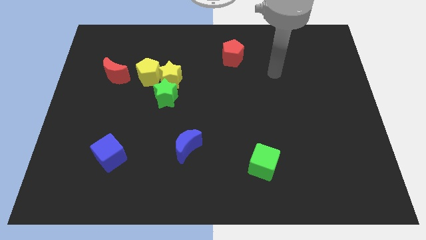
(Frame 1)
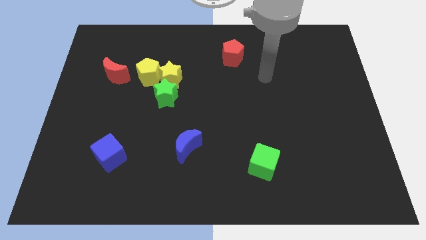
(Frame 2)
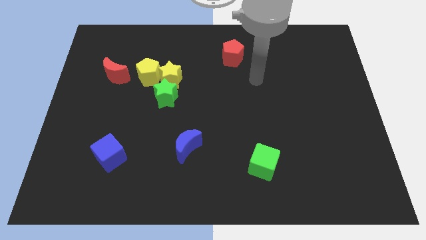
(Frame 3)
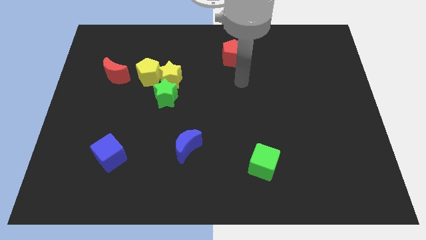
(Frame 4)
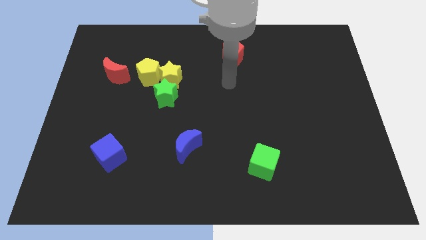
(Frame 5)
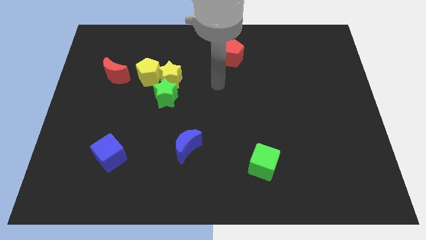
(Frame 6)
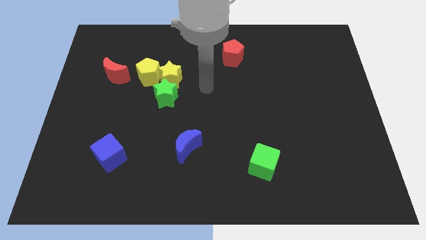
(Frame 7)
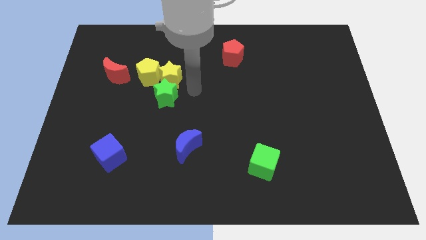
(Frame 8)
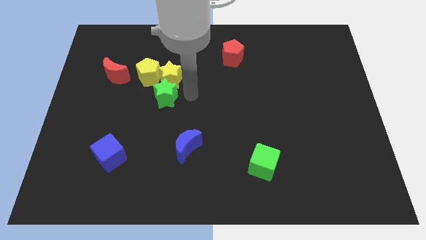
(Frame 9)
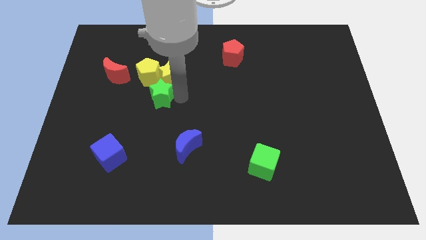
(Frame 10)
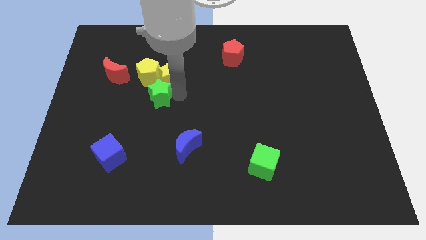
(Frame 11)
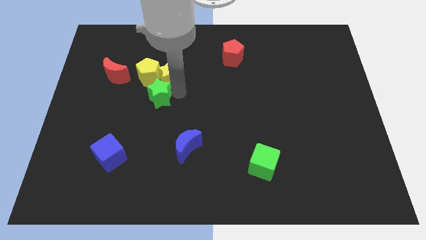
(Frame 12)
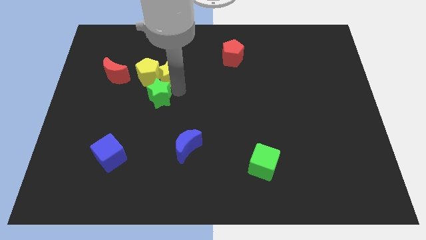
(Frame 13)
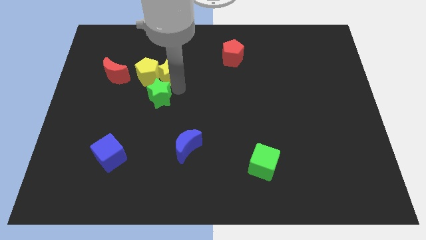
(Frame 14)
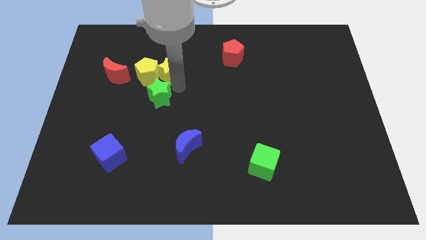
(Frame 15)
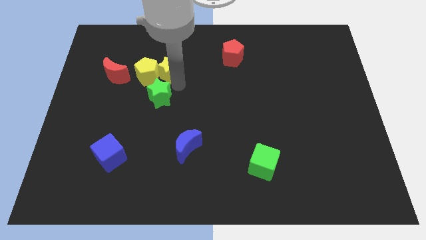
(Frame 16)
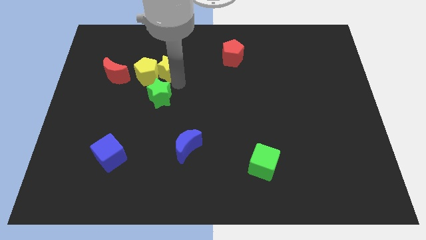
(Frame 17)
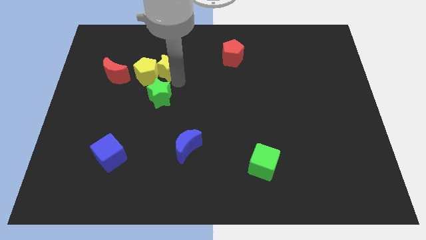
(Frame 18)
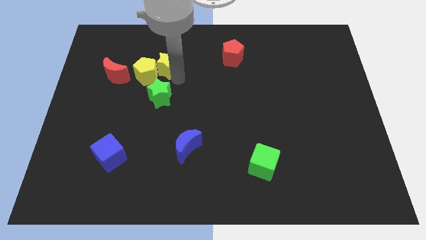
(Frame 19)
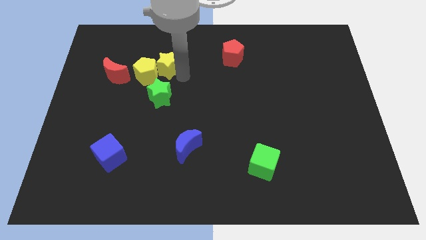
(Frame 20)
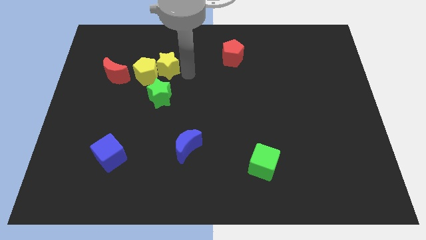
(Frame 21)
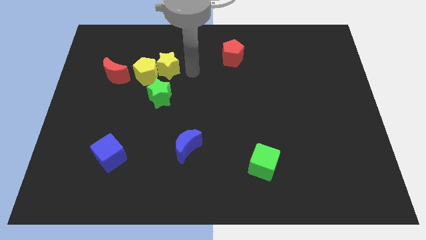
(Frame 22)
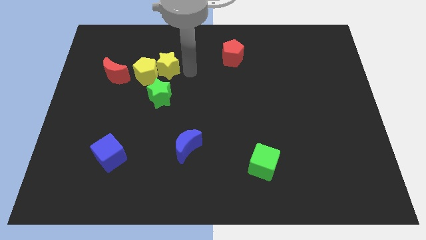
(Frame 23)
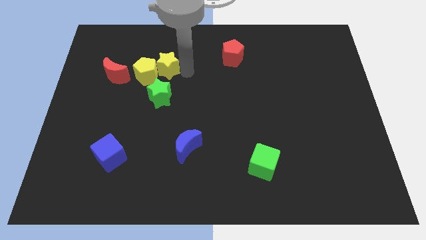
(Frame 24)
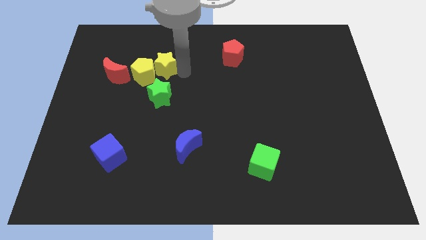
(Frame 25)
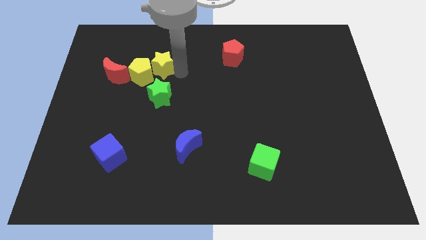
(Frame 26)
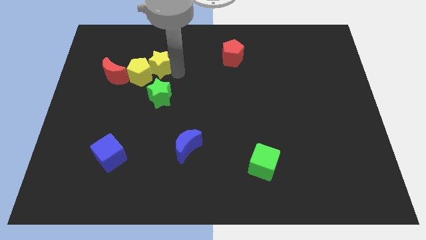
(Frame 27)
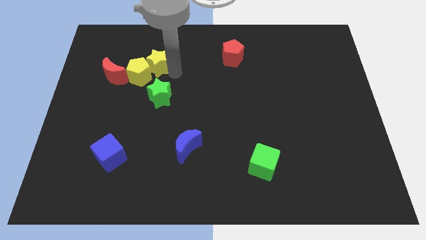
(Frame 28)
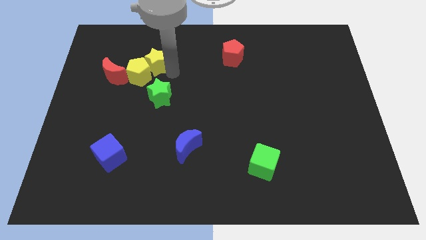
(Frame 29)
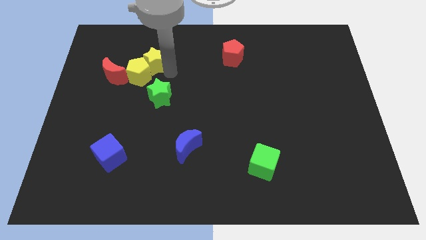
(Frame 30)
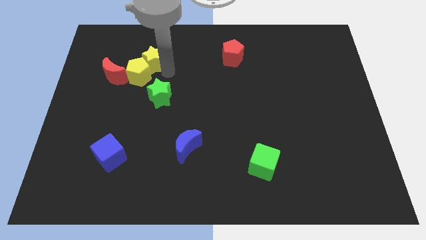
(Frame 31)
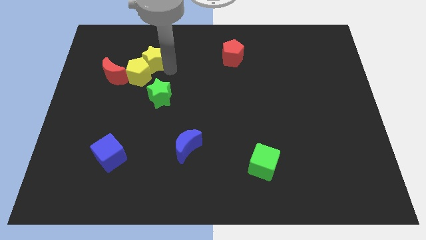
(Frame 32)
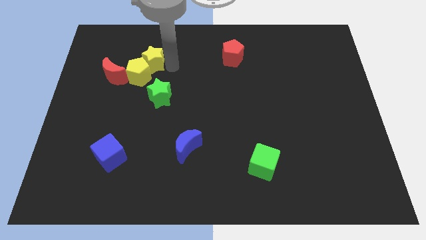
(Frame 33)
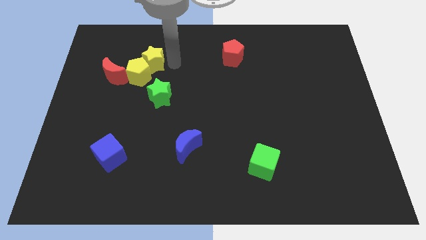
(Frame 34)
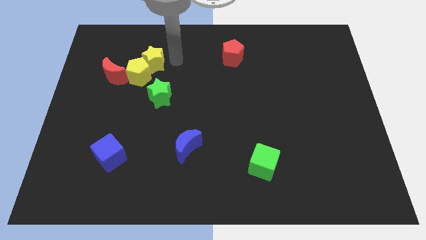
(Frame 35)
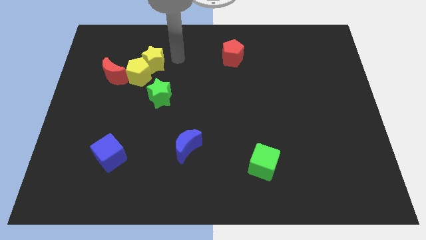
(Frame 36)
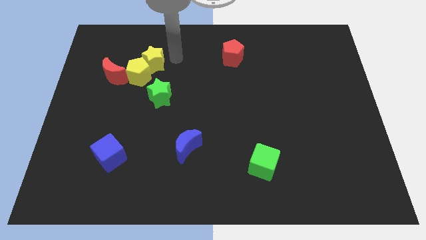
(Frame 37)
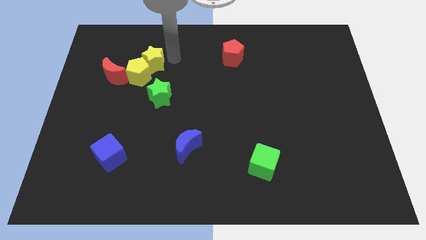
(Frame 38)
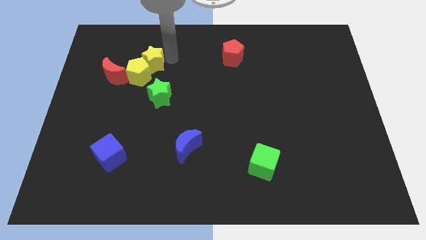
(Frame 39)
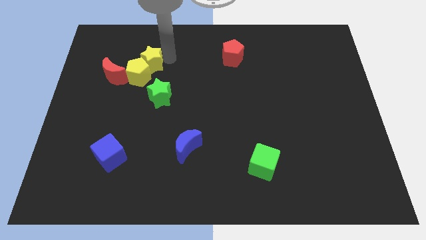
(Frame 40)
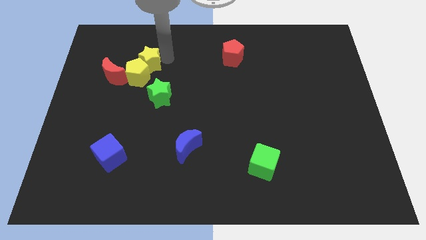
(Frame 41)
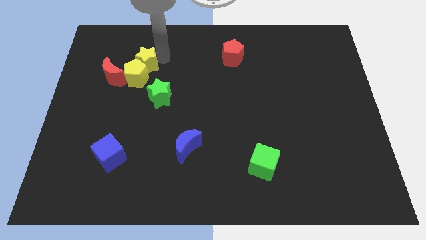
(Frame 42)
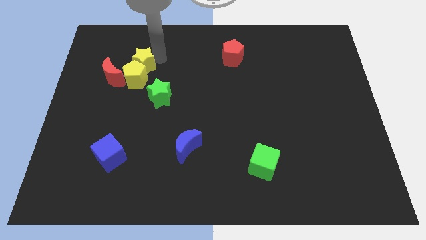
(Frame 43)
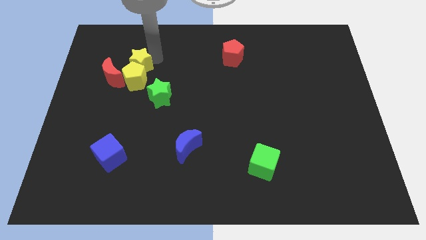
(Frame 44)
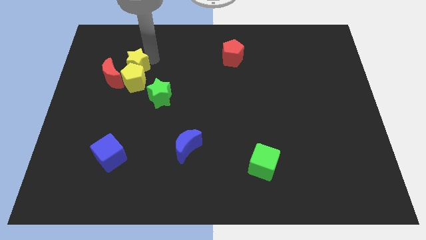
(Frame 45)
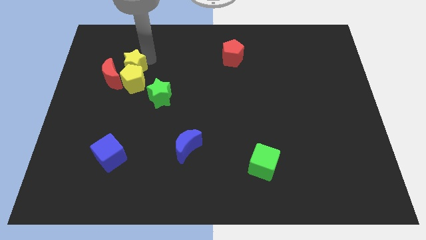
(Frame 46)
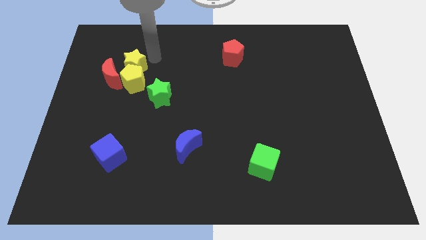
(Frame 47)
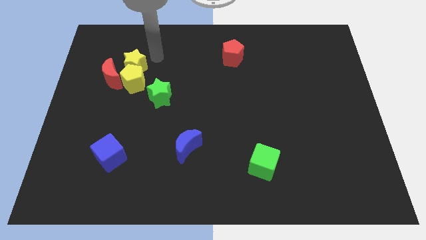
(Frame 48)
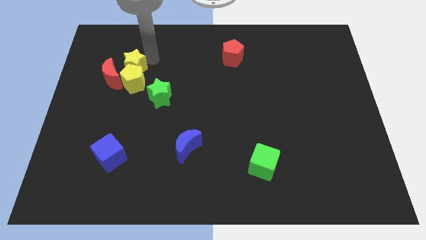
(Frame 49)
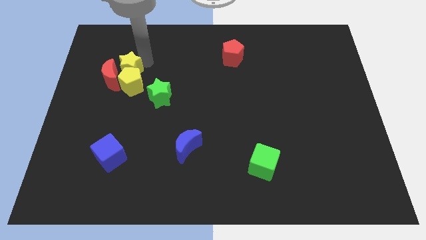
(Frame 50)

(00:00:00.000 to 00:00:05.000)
slide the yellow star to the red moon

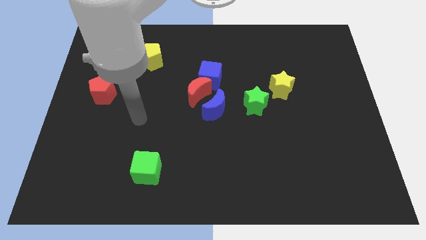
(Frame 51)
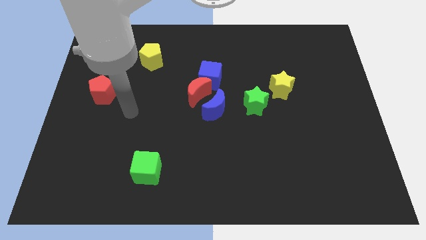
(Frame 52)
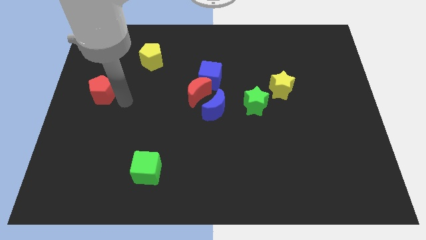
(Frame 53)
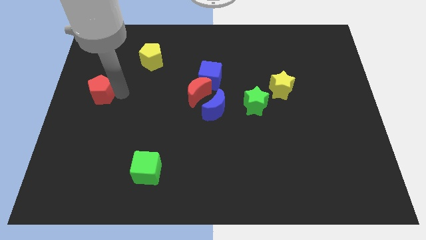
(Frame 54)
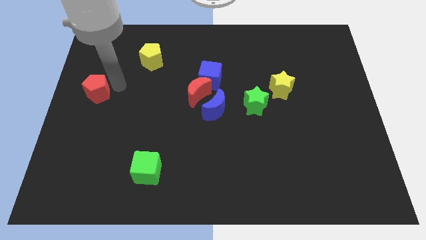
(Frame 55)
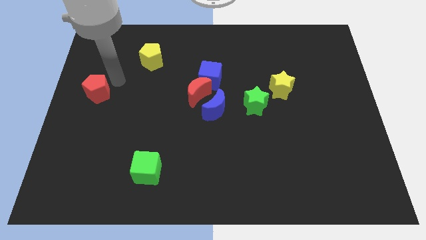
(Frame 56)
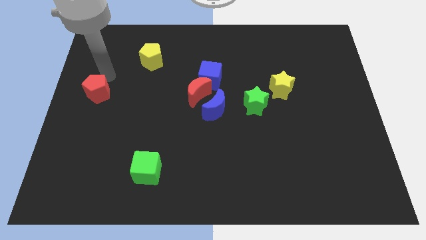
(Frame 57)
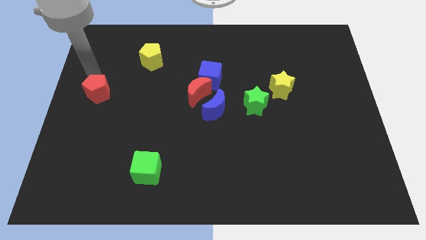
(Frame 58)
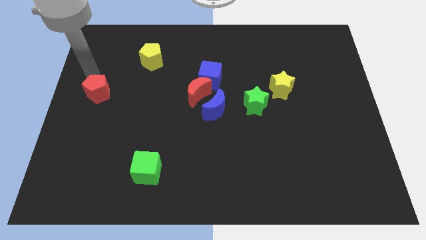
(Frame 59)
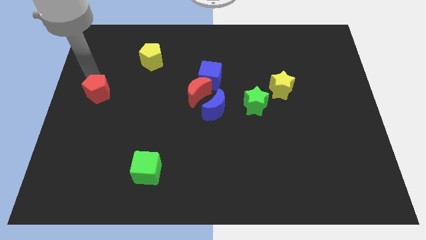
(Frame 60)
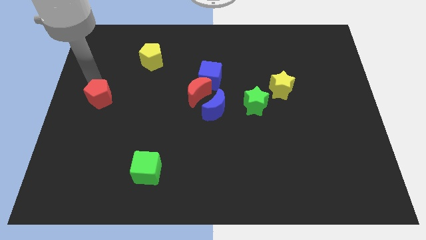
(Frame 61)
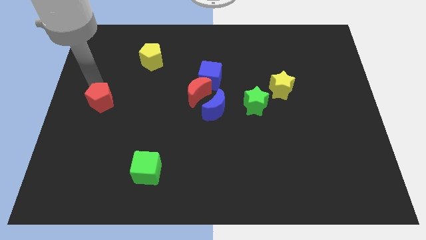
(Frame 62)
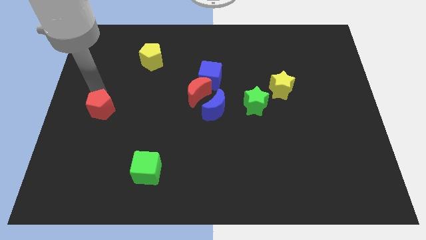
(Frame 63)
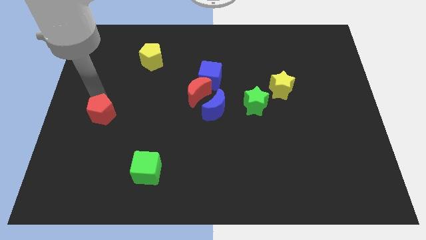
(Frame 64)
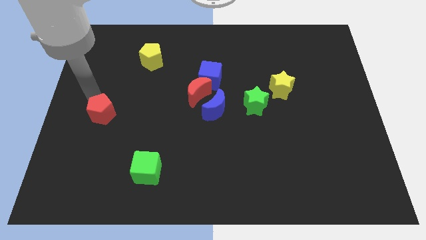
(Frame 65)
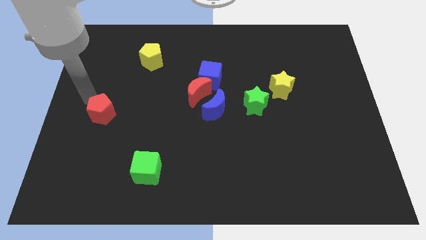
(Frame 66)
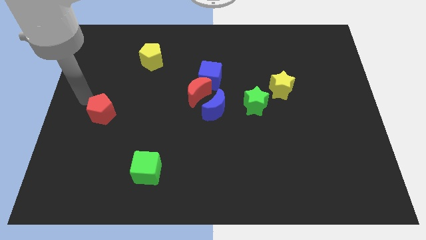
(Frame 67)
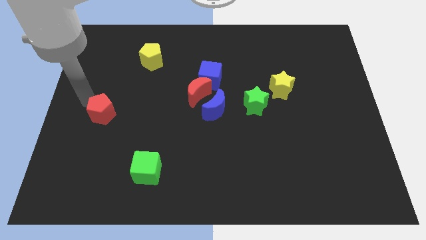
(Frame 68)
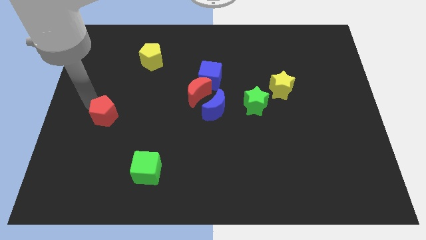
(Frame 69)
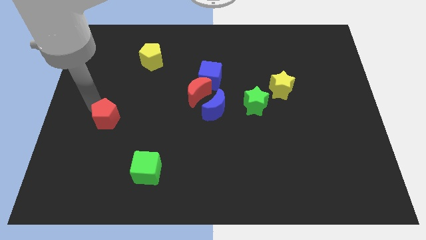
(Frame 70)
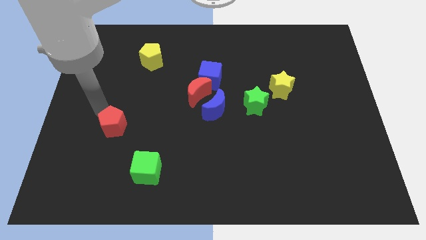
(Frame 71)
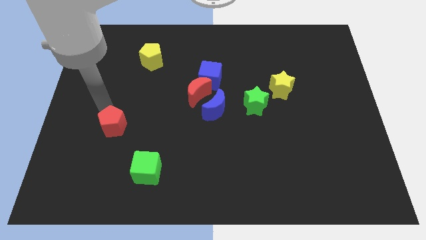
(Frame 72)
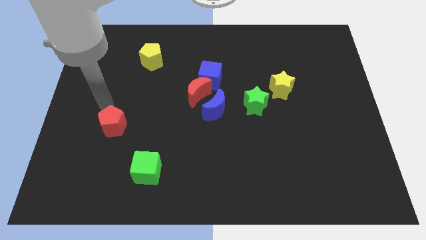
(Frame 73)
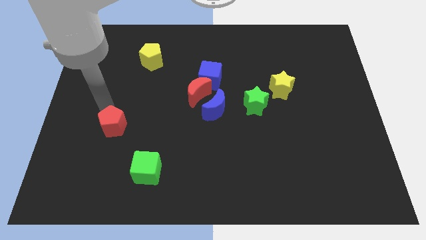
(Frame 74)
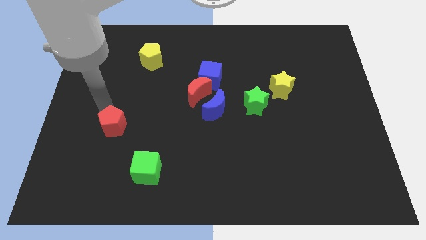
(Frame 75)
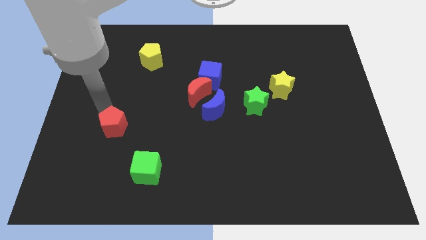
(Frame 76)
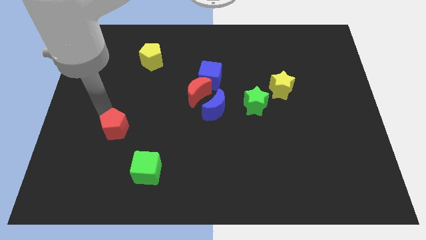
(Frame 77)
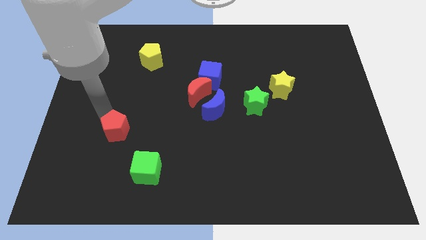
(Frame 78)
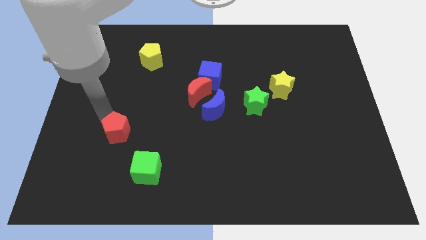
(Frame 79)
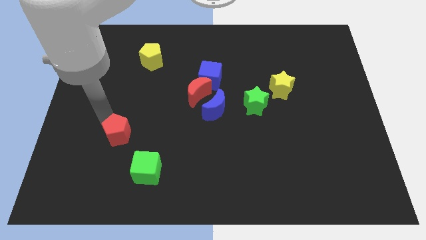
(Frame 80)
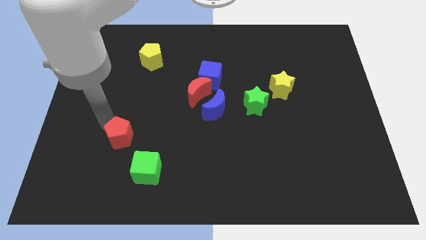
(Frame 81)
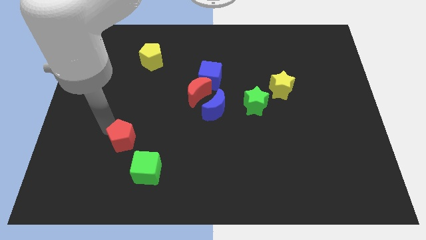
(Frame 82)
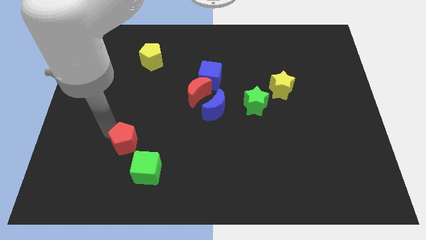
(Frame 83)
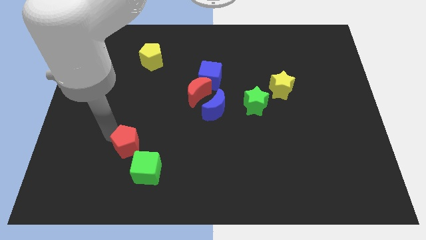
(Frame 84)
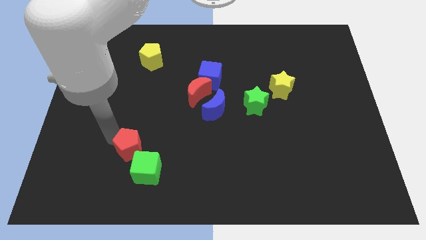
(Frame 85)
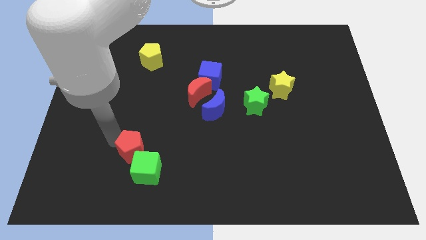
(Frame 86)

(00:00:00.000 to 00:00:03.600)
push the red pentagon close to the green cube
